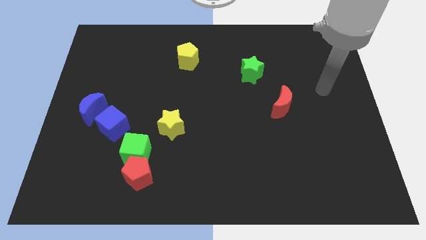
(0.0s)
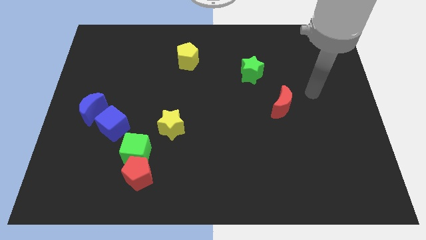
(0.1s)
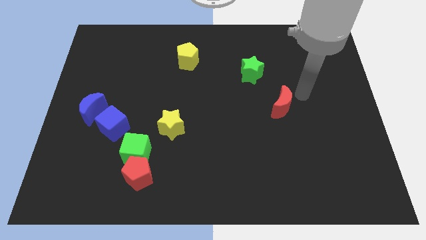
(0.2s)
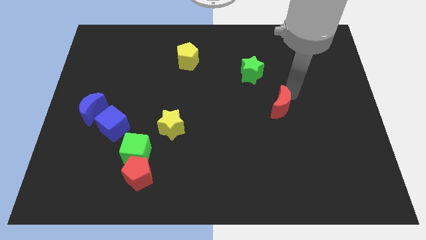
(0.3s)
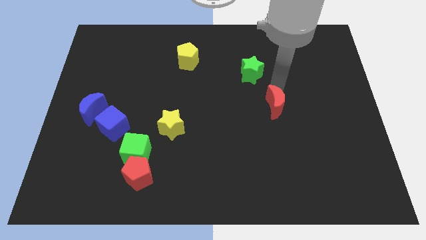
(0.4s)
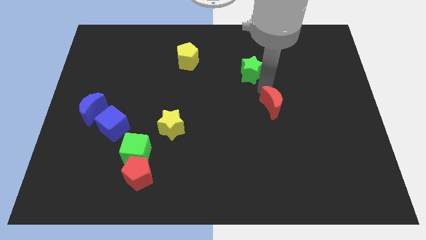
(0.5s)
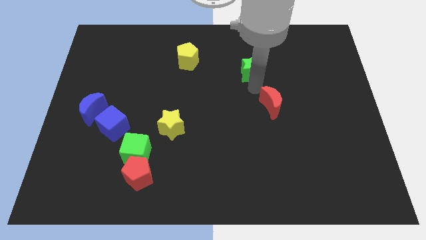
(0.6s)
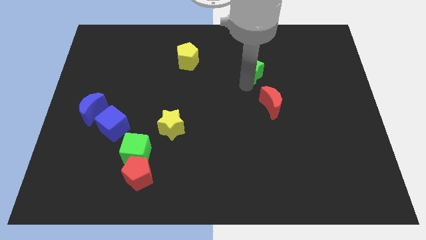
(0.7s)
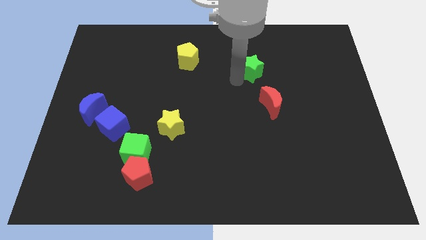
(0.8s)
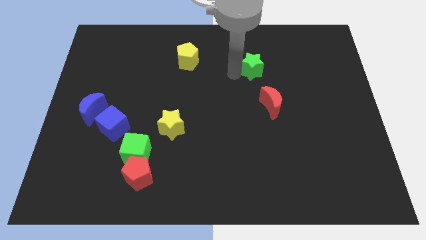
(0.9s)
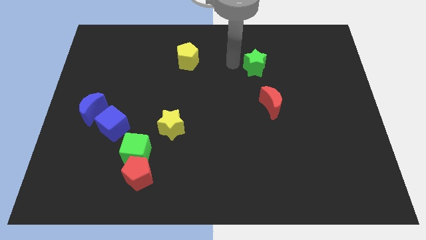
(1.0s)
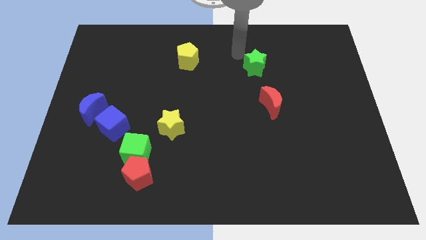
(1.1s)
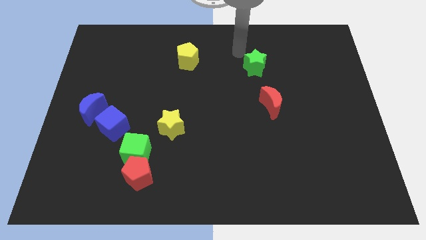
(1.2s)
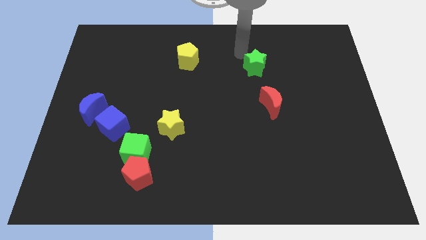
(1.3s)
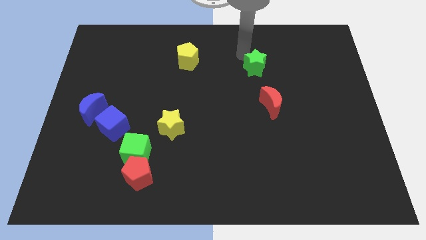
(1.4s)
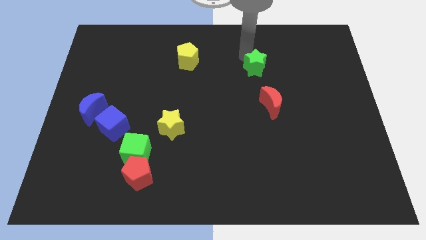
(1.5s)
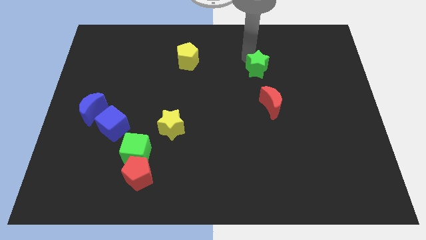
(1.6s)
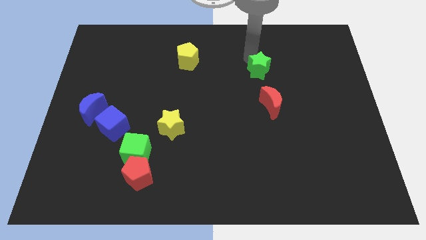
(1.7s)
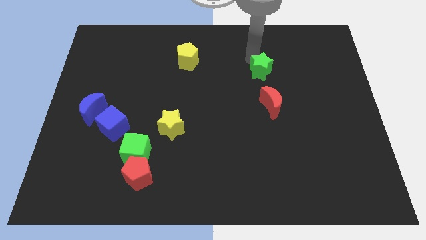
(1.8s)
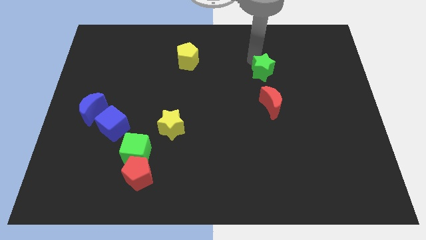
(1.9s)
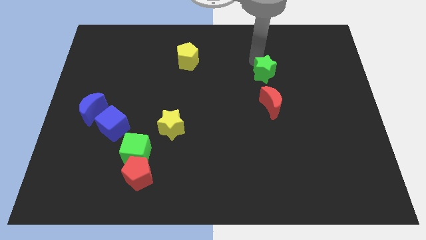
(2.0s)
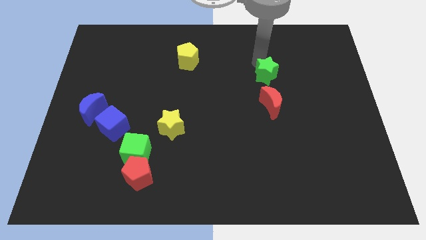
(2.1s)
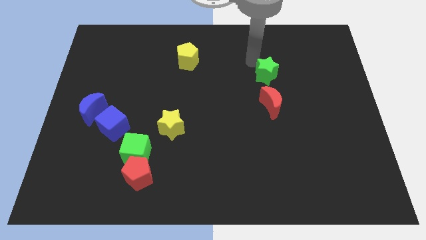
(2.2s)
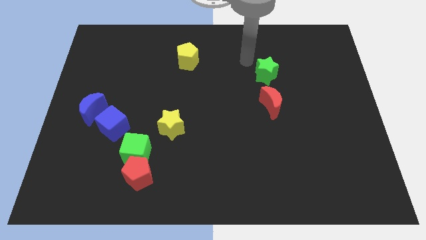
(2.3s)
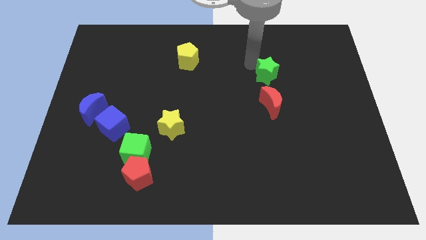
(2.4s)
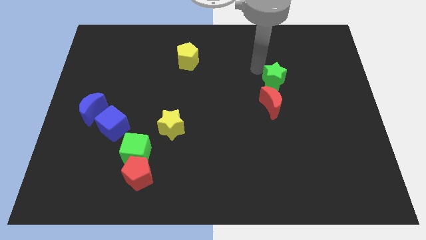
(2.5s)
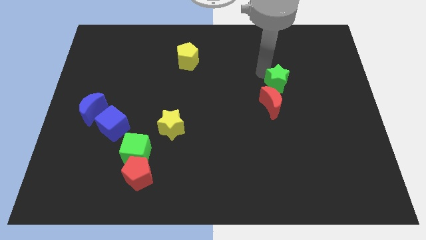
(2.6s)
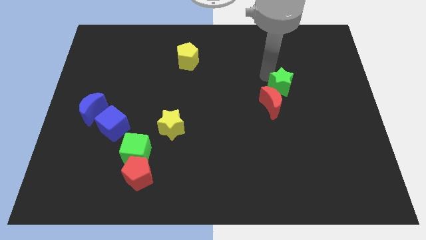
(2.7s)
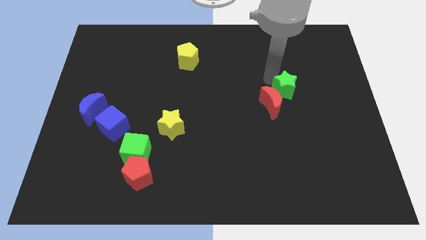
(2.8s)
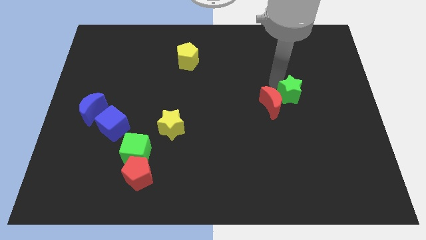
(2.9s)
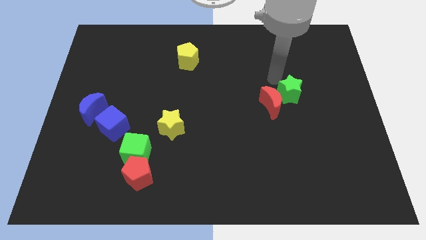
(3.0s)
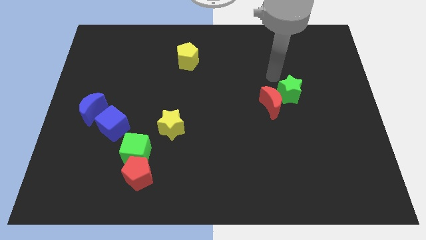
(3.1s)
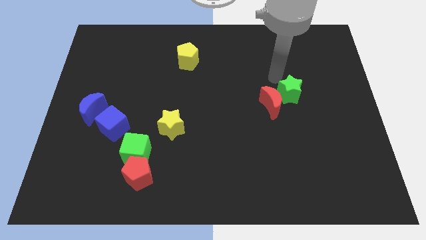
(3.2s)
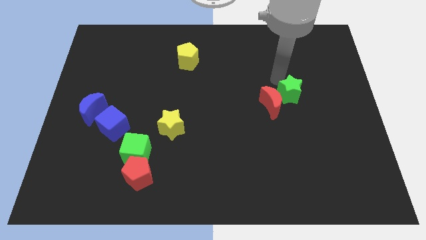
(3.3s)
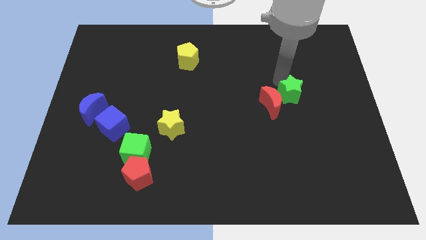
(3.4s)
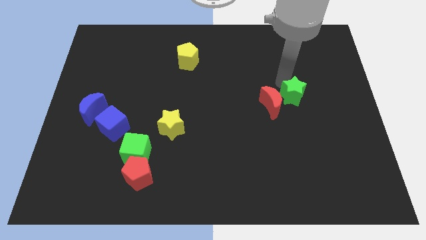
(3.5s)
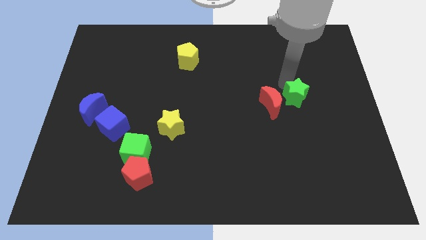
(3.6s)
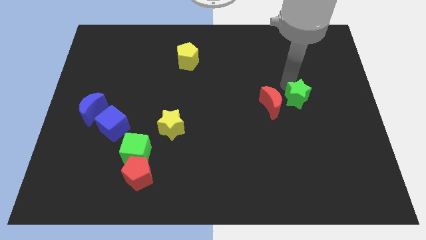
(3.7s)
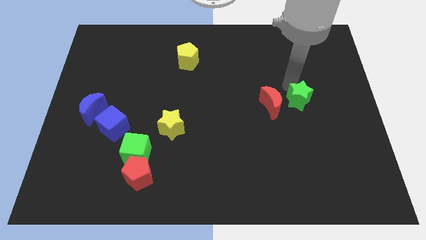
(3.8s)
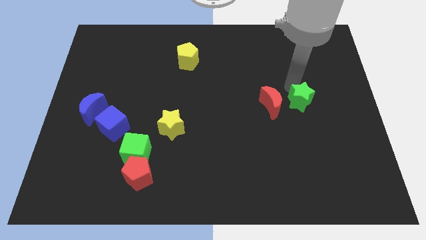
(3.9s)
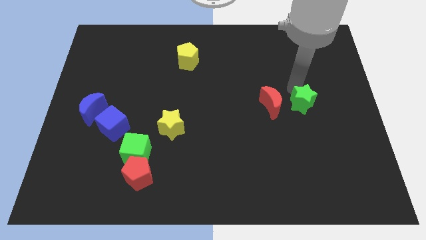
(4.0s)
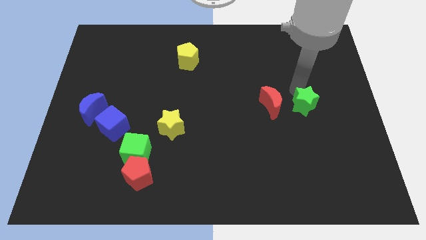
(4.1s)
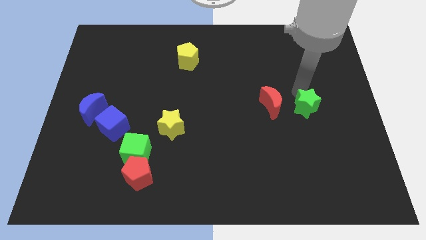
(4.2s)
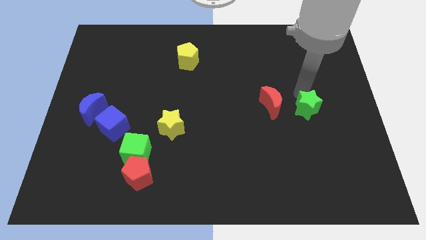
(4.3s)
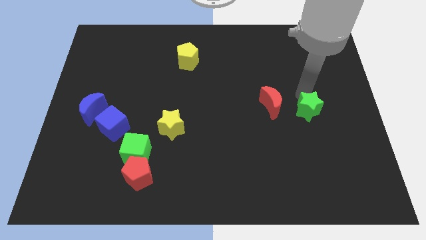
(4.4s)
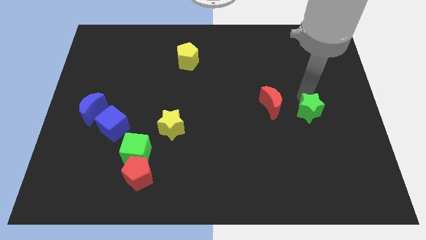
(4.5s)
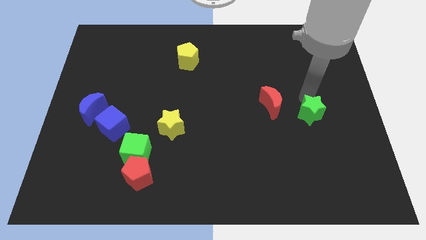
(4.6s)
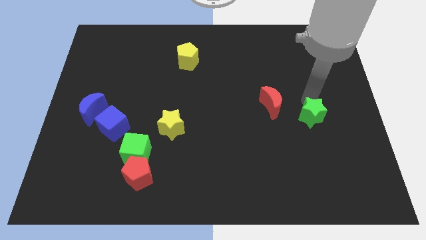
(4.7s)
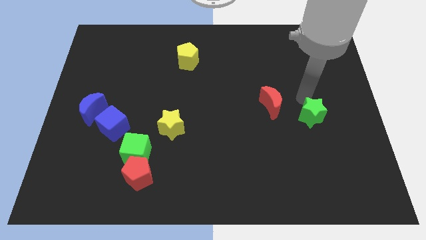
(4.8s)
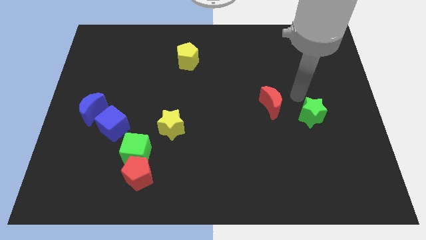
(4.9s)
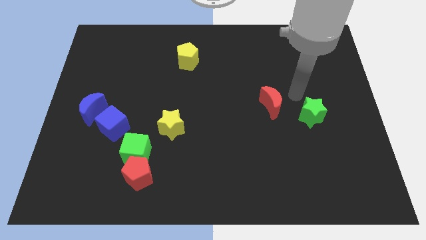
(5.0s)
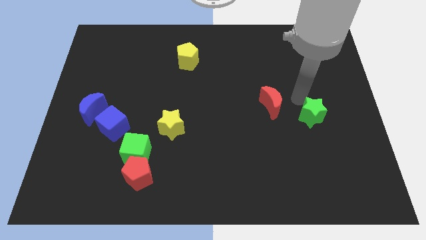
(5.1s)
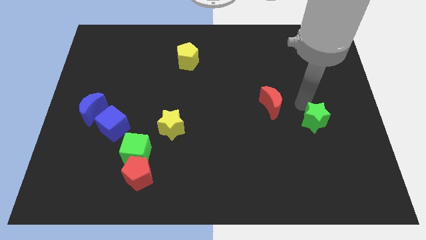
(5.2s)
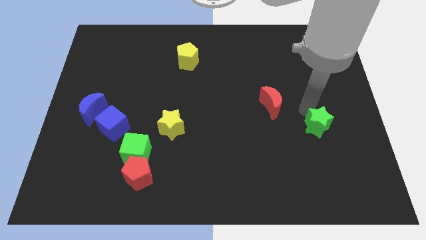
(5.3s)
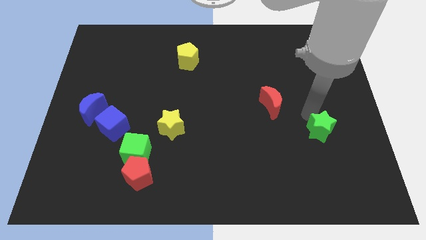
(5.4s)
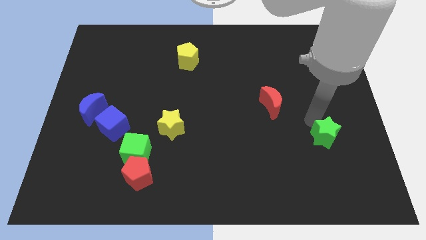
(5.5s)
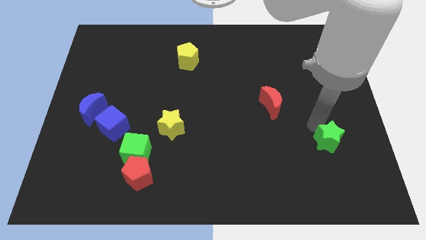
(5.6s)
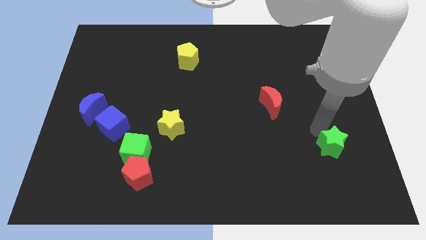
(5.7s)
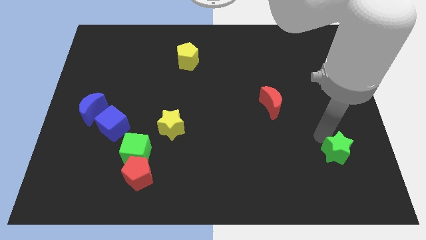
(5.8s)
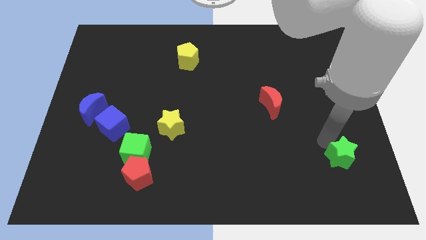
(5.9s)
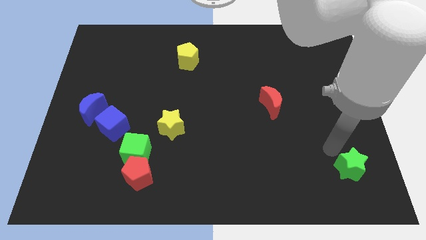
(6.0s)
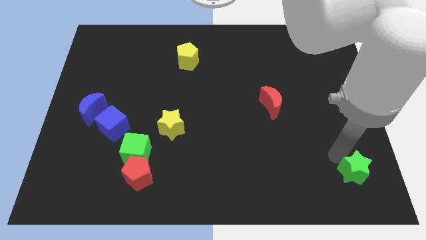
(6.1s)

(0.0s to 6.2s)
move the green star to the bottom right
